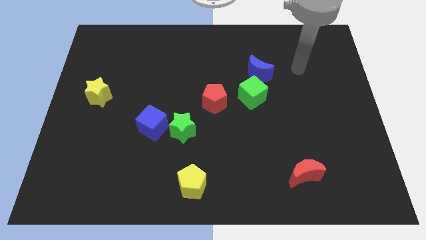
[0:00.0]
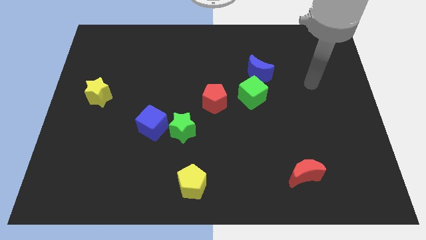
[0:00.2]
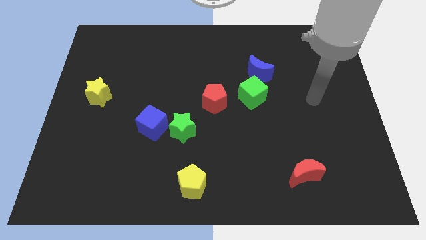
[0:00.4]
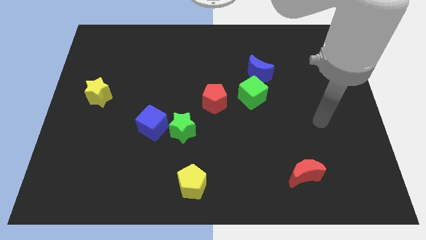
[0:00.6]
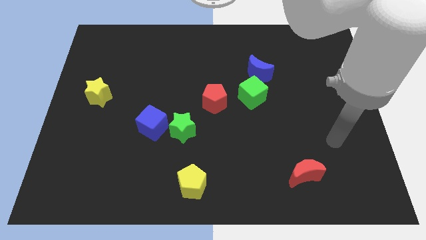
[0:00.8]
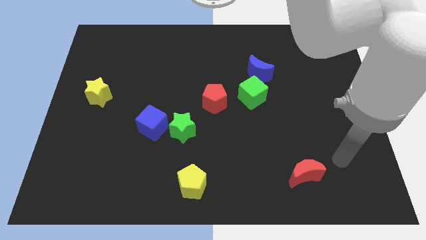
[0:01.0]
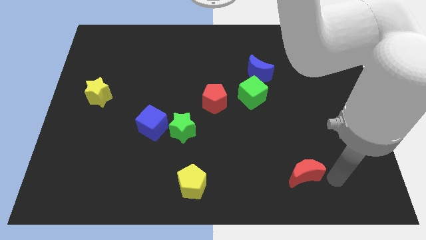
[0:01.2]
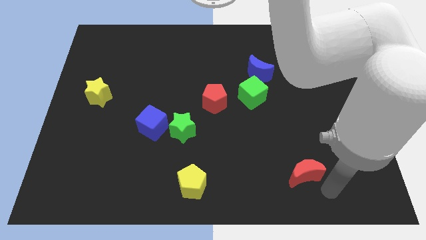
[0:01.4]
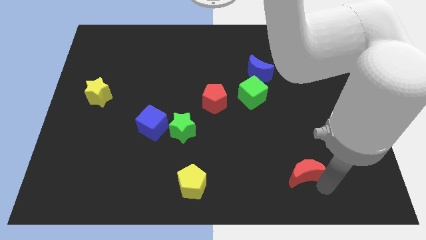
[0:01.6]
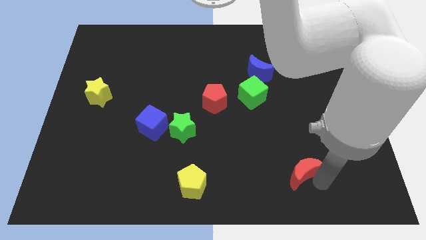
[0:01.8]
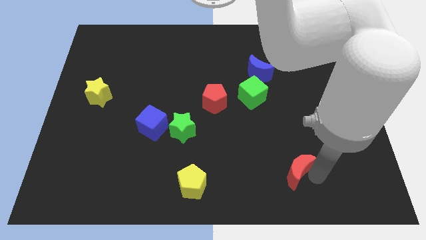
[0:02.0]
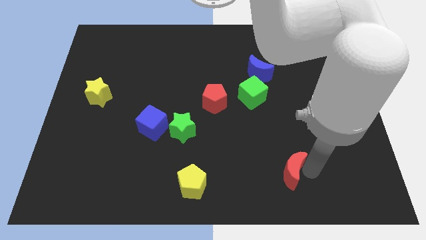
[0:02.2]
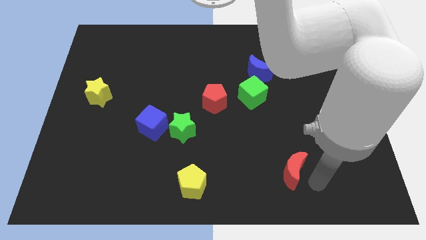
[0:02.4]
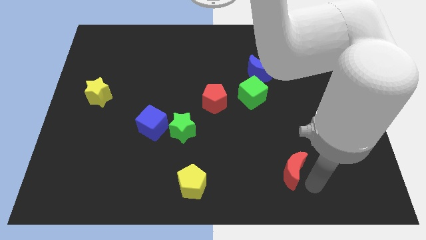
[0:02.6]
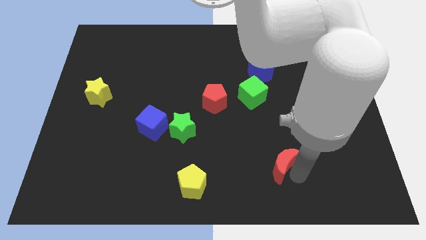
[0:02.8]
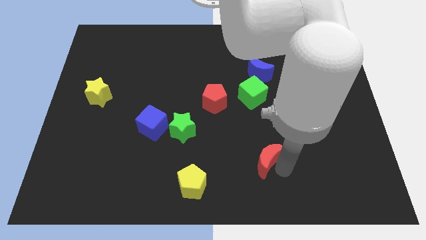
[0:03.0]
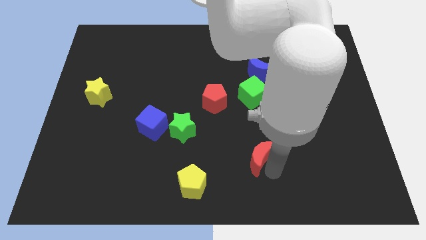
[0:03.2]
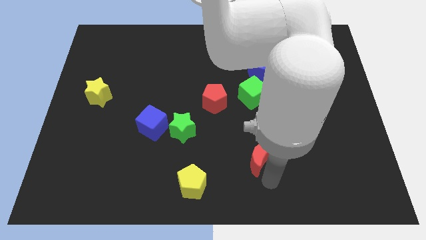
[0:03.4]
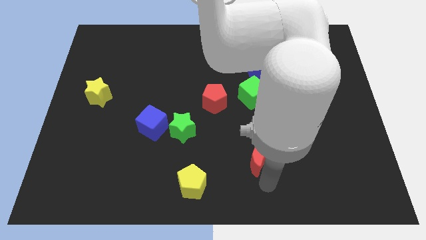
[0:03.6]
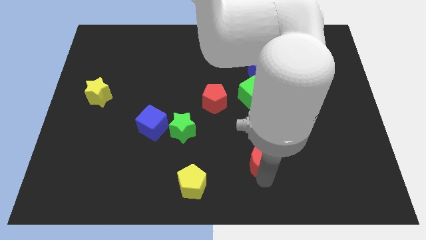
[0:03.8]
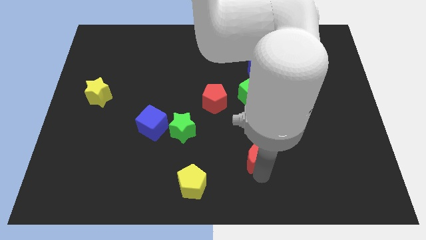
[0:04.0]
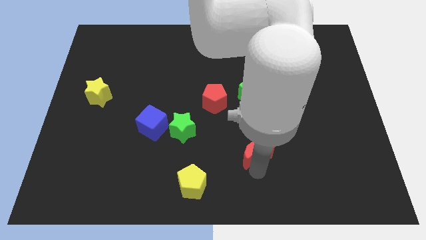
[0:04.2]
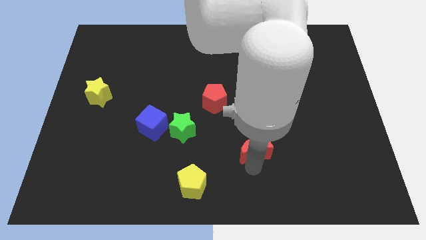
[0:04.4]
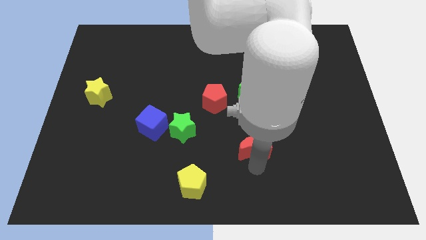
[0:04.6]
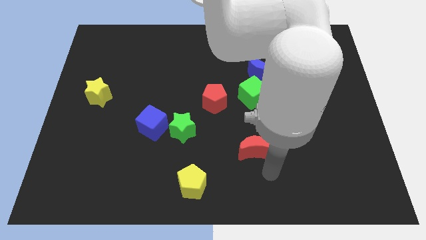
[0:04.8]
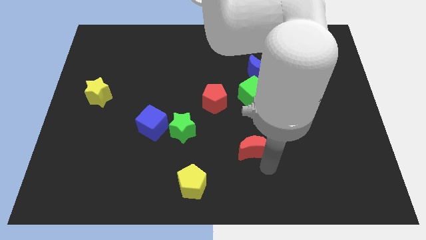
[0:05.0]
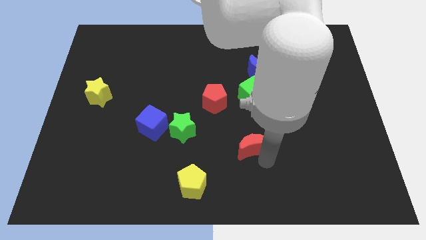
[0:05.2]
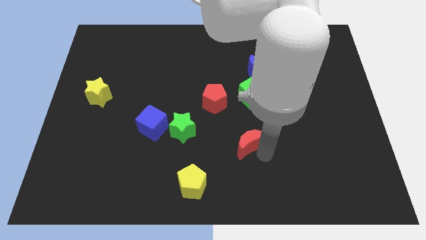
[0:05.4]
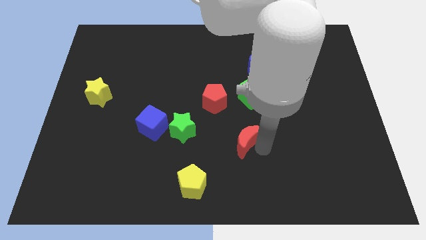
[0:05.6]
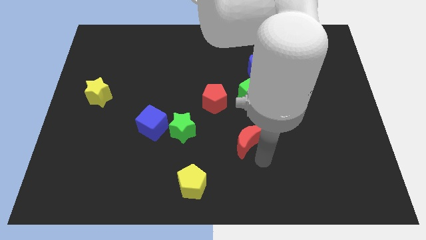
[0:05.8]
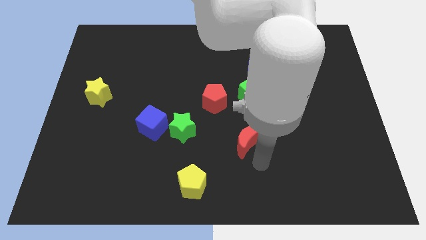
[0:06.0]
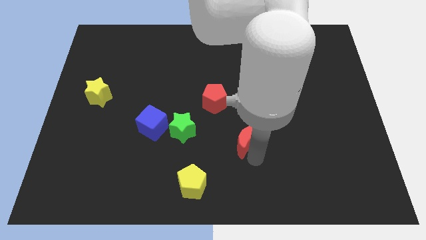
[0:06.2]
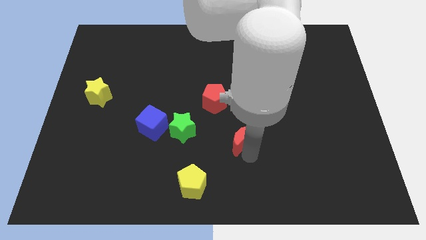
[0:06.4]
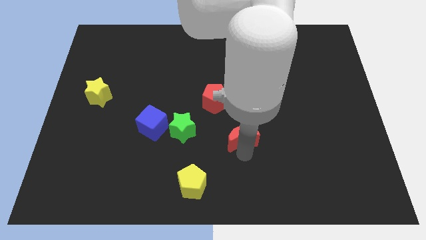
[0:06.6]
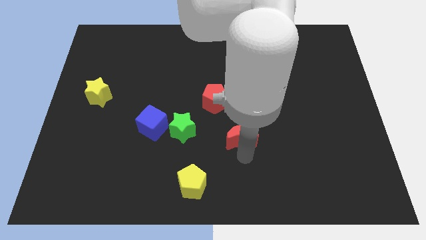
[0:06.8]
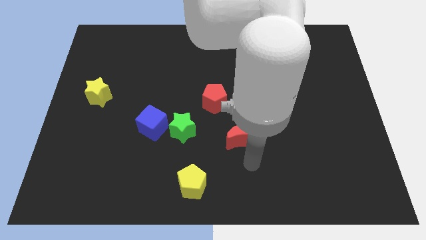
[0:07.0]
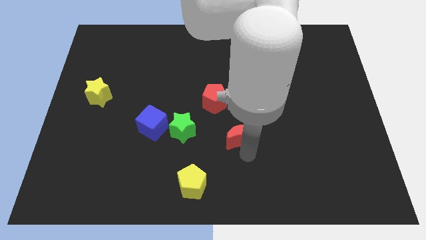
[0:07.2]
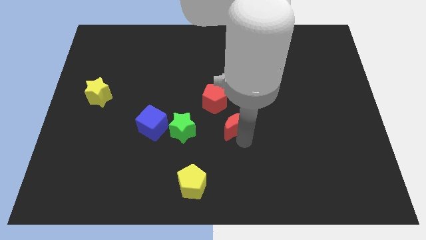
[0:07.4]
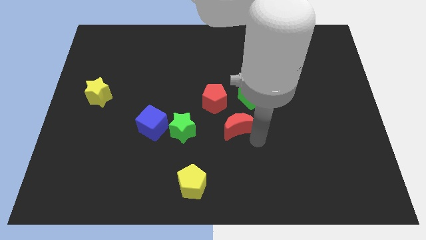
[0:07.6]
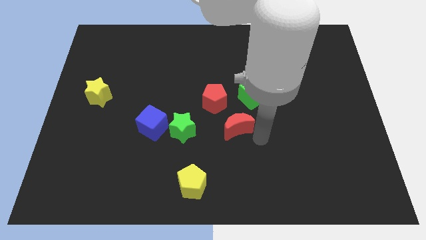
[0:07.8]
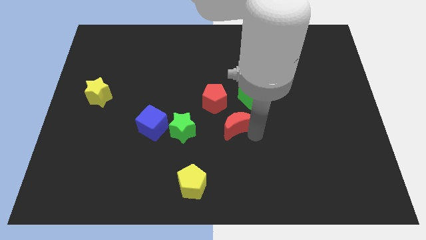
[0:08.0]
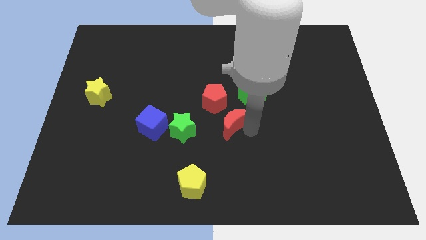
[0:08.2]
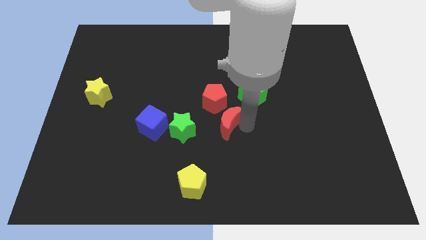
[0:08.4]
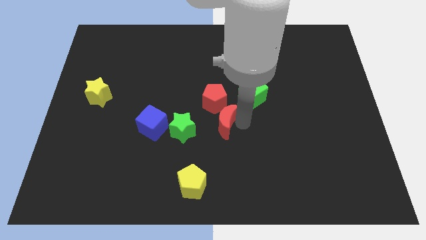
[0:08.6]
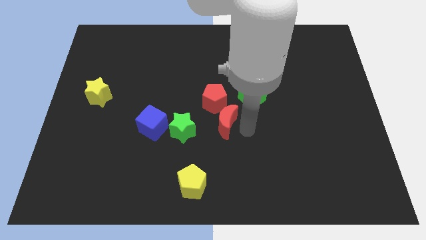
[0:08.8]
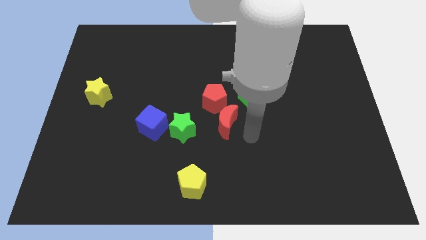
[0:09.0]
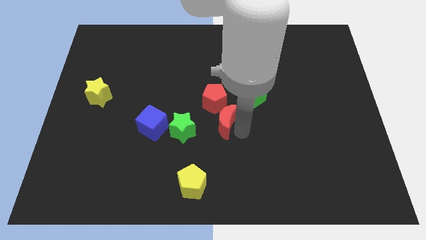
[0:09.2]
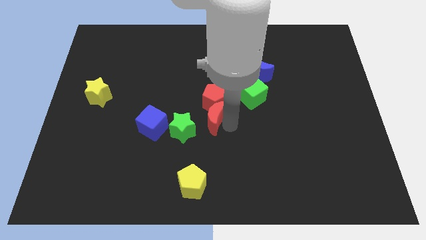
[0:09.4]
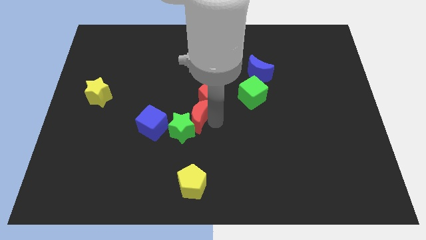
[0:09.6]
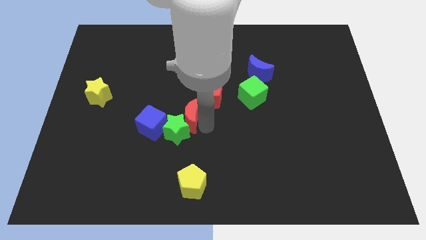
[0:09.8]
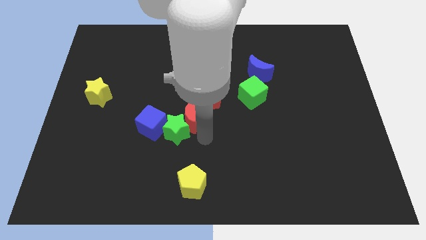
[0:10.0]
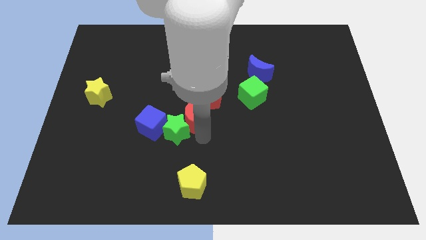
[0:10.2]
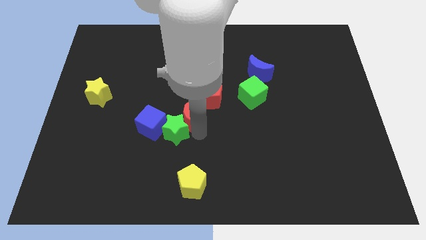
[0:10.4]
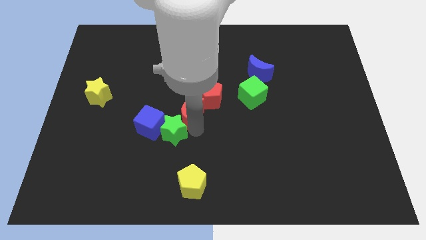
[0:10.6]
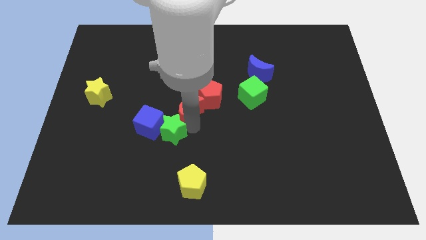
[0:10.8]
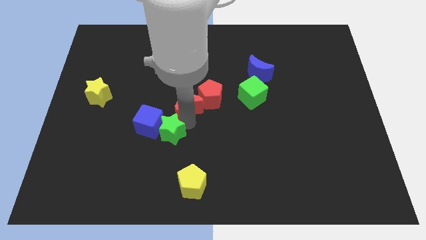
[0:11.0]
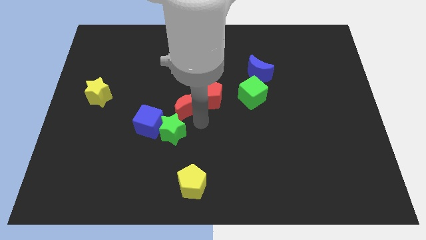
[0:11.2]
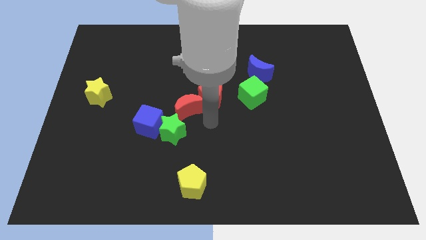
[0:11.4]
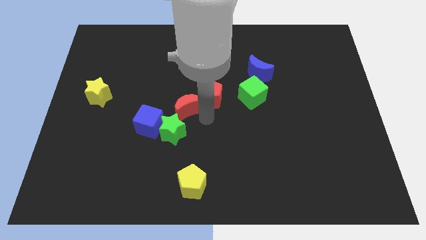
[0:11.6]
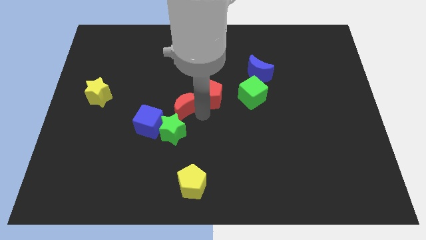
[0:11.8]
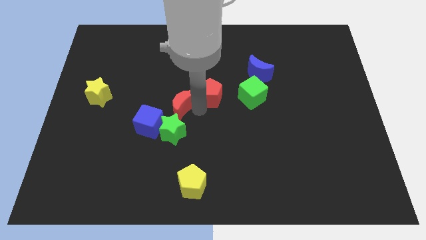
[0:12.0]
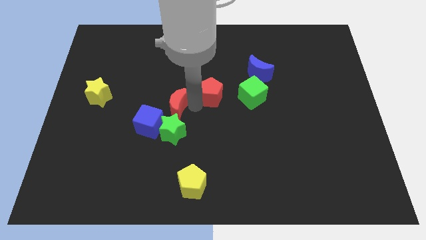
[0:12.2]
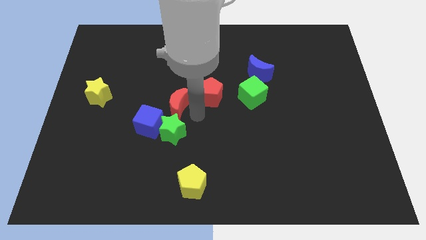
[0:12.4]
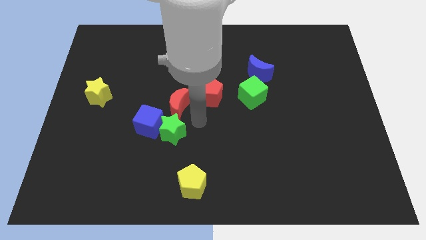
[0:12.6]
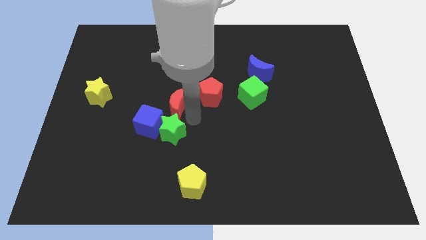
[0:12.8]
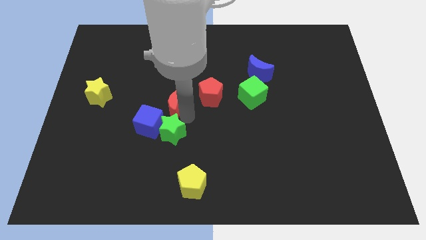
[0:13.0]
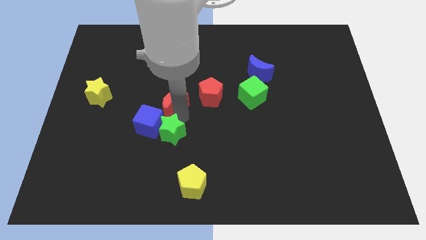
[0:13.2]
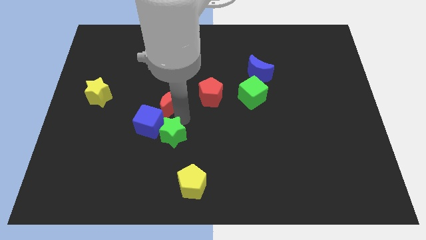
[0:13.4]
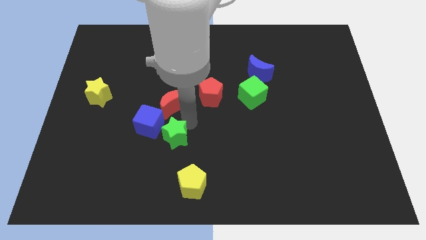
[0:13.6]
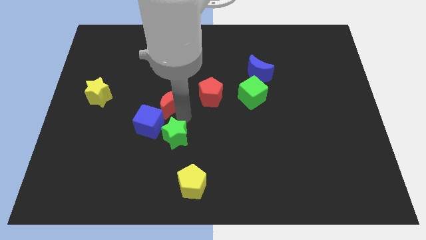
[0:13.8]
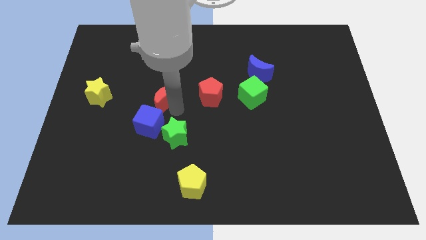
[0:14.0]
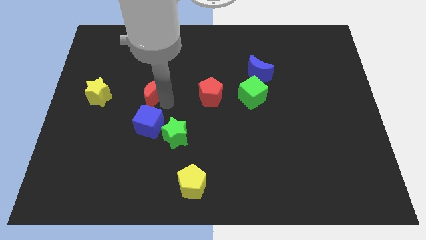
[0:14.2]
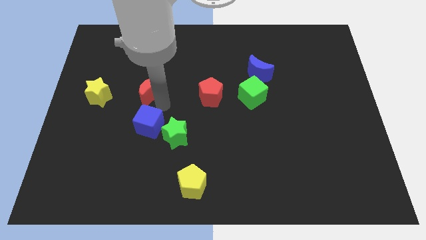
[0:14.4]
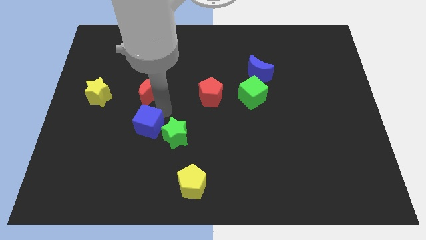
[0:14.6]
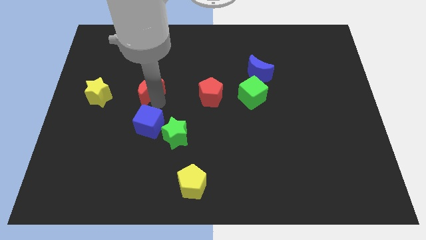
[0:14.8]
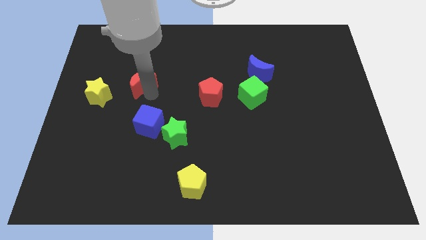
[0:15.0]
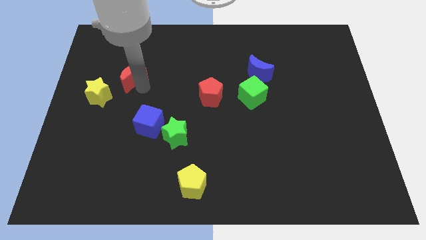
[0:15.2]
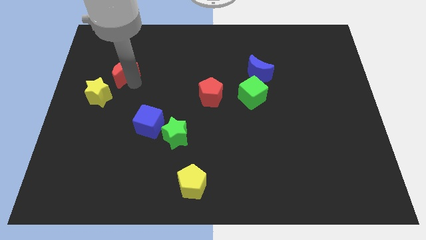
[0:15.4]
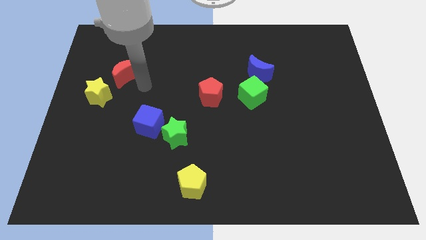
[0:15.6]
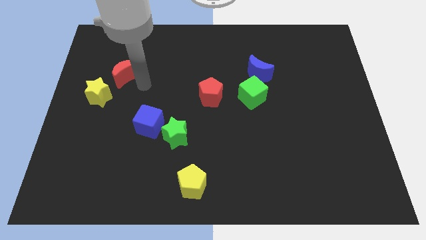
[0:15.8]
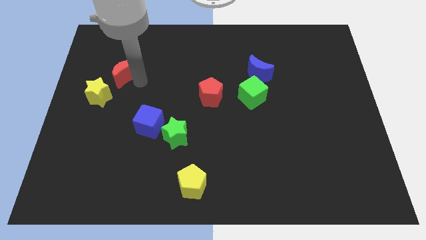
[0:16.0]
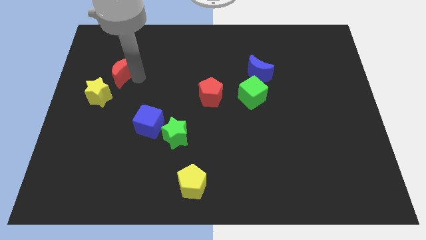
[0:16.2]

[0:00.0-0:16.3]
push the red moon to the top of the yellow star
